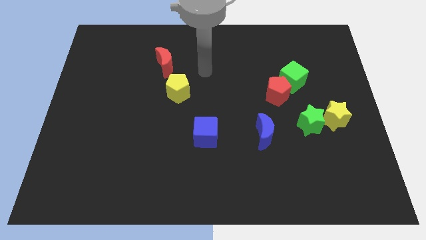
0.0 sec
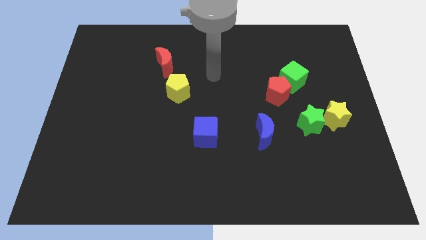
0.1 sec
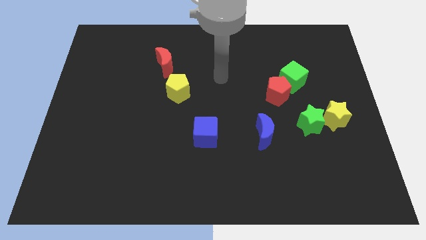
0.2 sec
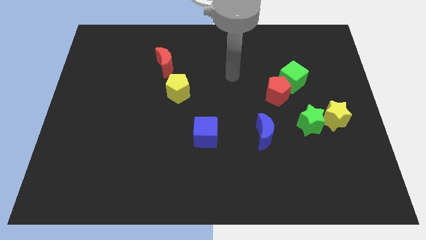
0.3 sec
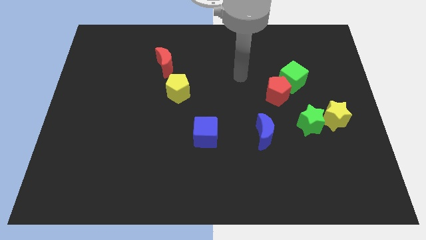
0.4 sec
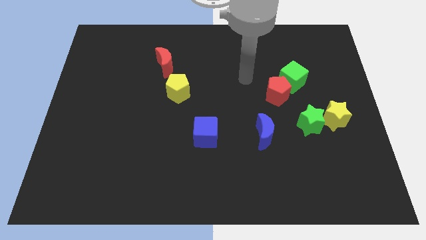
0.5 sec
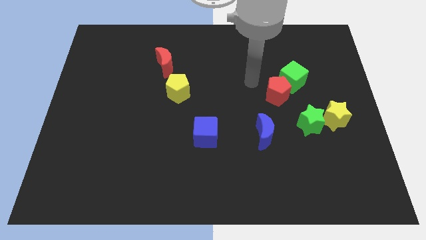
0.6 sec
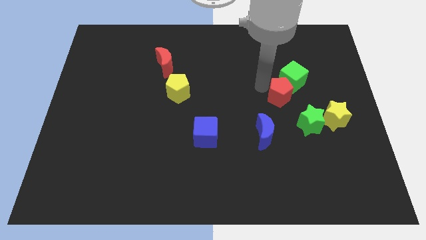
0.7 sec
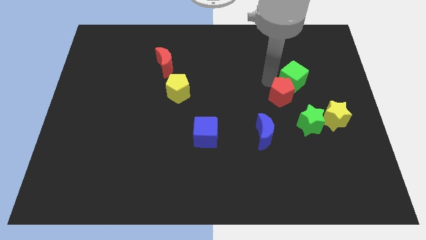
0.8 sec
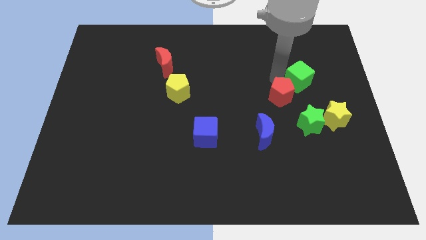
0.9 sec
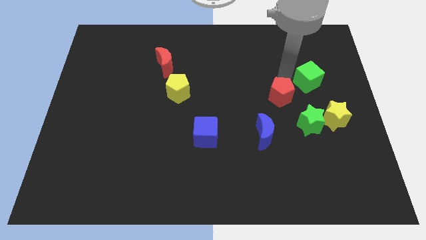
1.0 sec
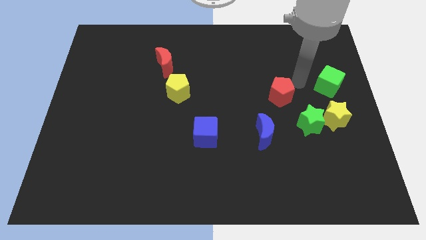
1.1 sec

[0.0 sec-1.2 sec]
separate the red pentagon from the green cube

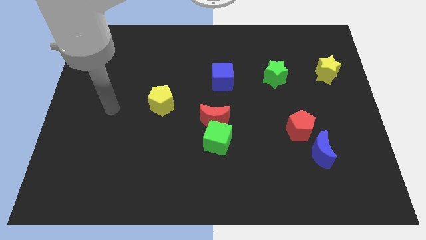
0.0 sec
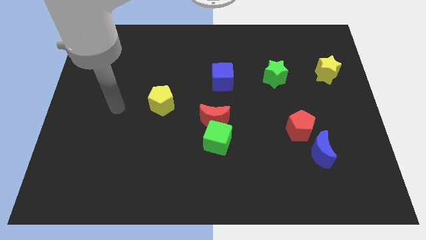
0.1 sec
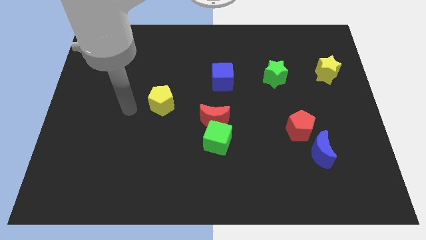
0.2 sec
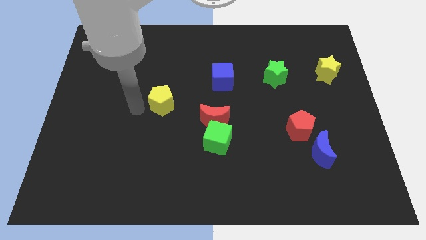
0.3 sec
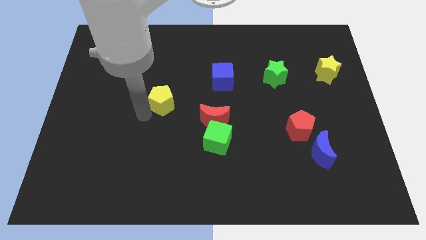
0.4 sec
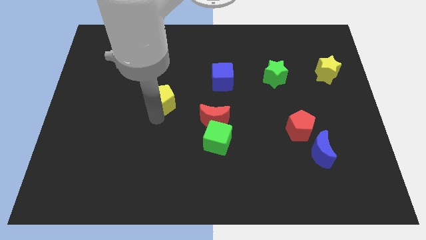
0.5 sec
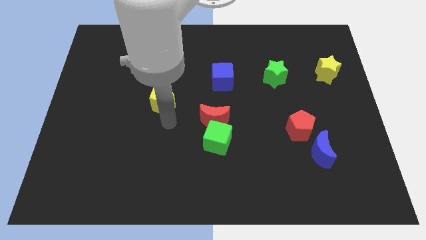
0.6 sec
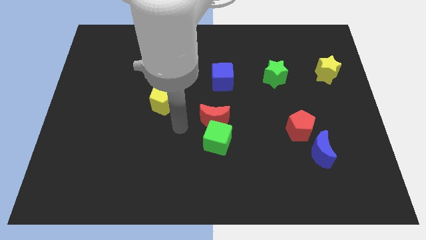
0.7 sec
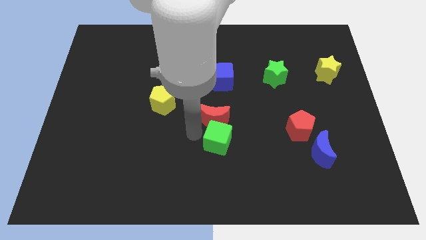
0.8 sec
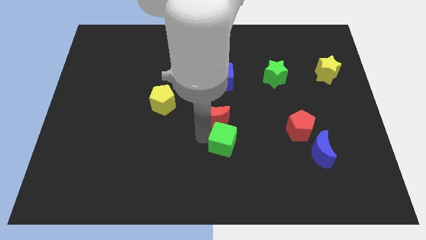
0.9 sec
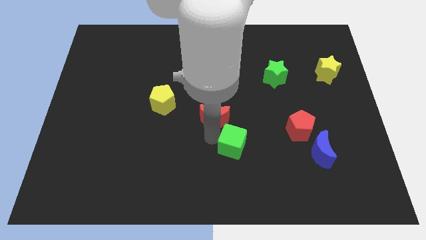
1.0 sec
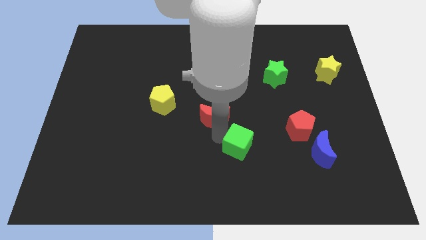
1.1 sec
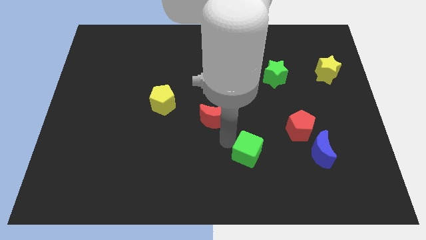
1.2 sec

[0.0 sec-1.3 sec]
pull the red moon apart from the green cube

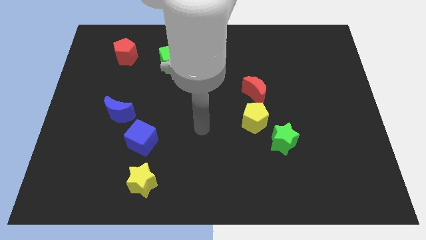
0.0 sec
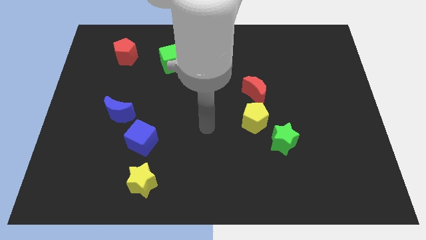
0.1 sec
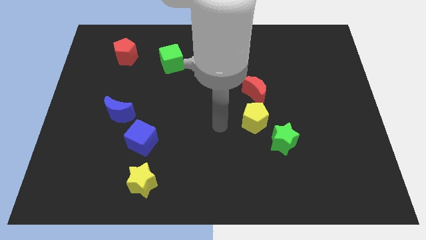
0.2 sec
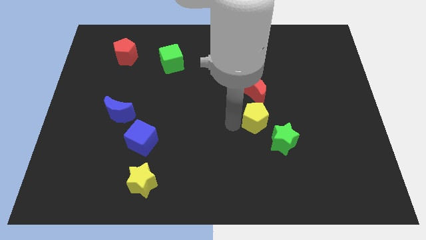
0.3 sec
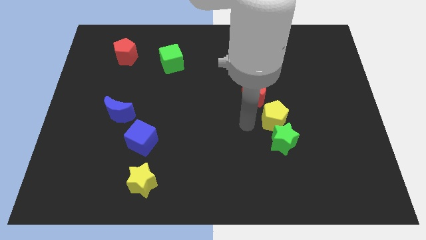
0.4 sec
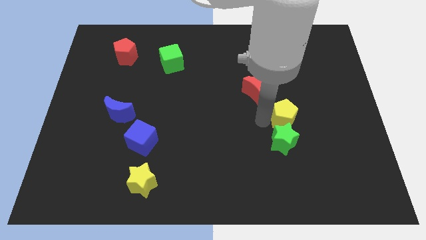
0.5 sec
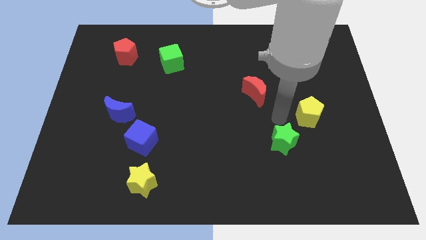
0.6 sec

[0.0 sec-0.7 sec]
move the green star away from the yellow pentagon

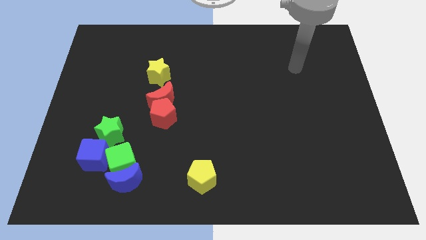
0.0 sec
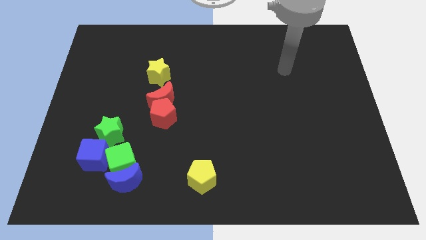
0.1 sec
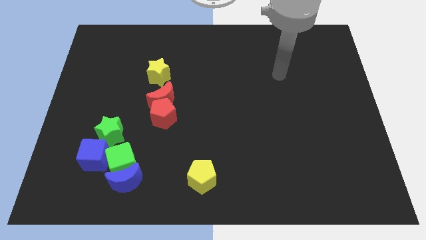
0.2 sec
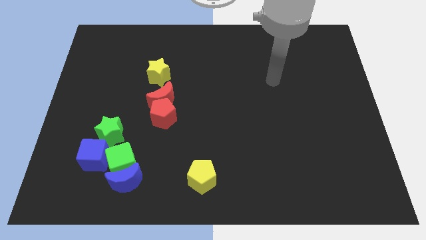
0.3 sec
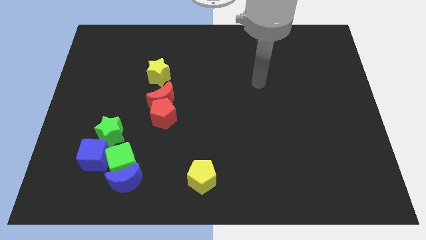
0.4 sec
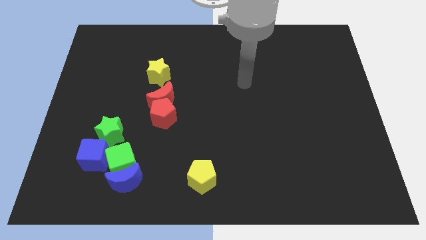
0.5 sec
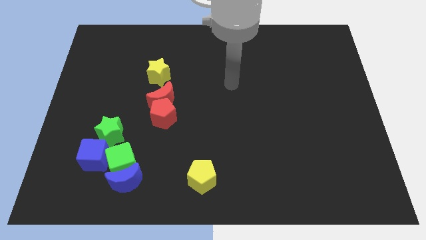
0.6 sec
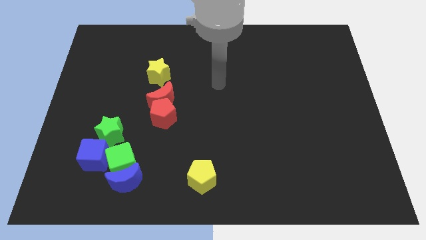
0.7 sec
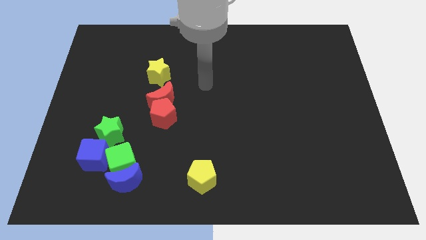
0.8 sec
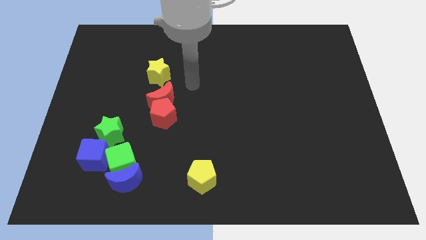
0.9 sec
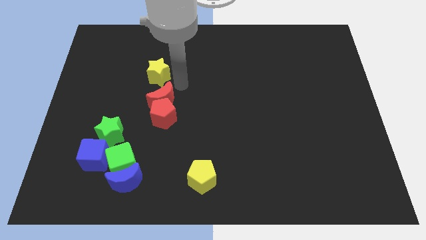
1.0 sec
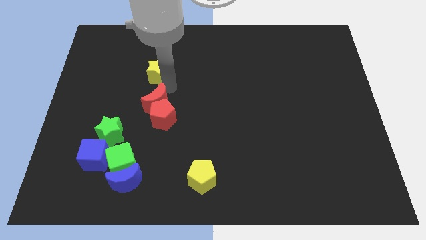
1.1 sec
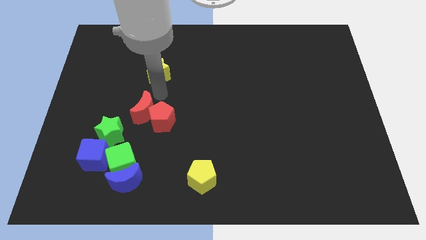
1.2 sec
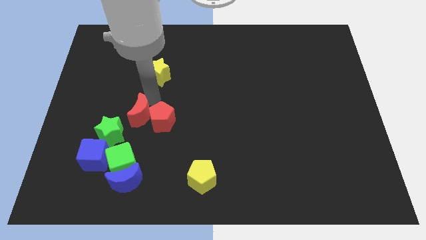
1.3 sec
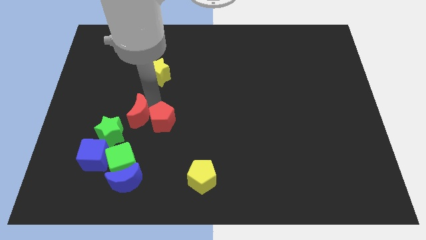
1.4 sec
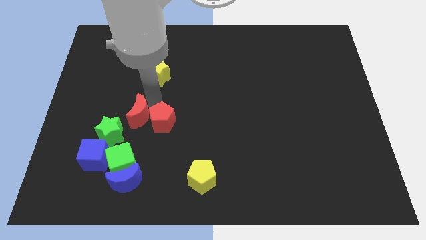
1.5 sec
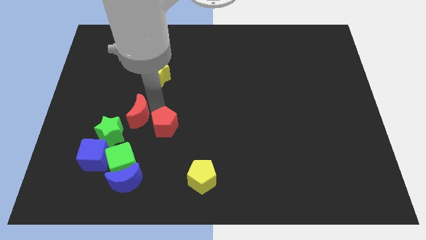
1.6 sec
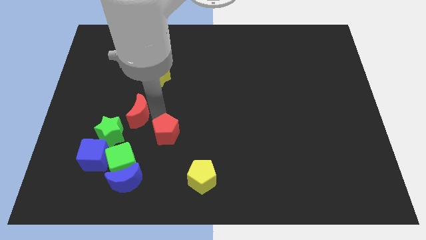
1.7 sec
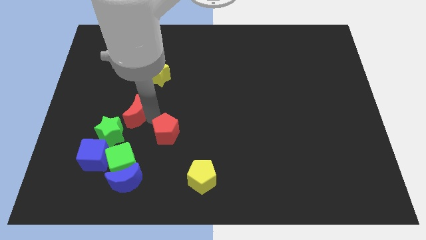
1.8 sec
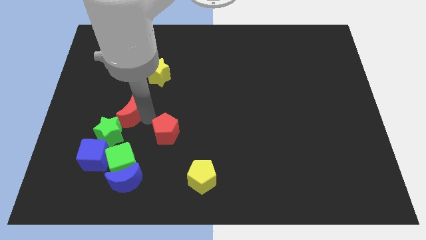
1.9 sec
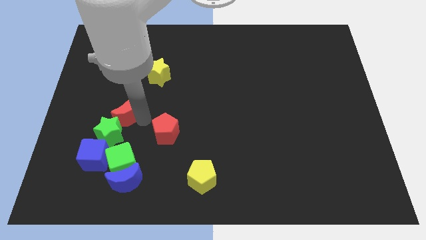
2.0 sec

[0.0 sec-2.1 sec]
separate the red pentagon from the red moon

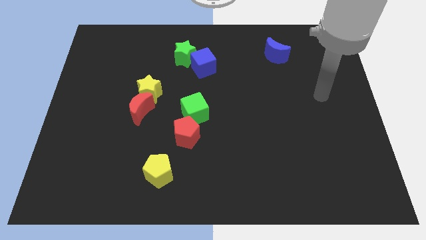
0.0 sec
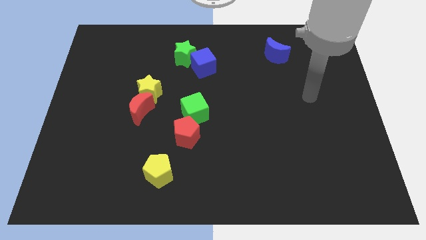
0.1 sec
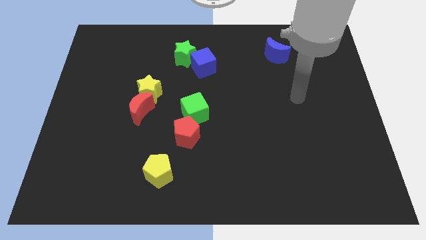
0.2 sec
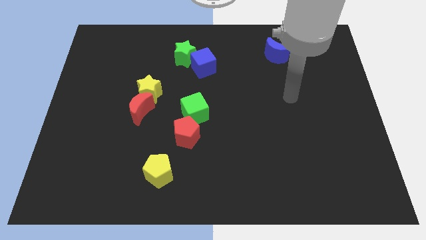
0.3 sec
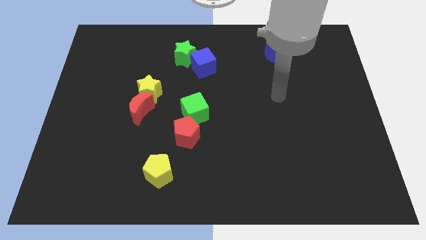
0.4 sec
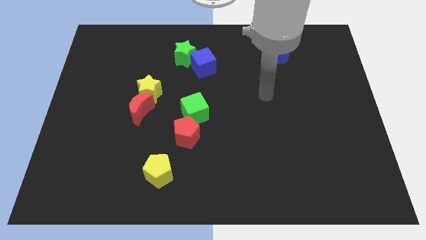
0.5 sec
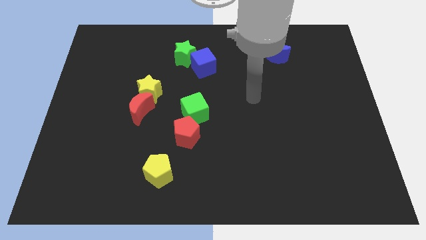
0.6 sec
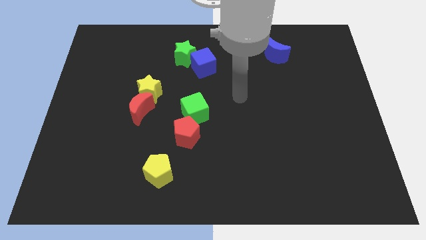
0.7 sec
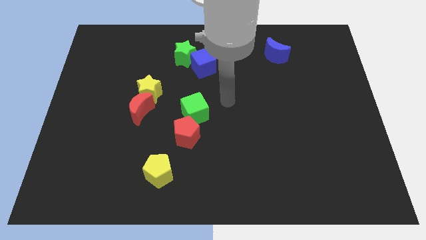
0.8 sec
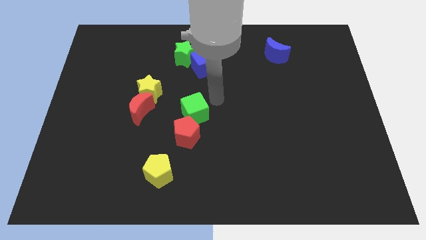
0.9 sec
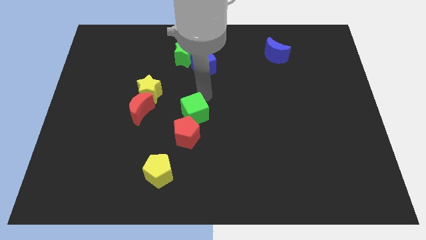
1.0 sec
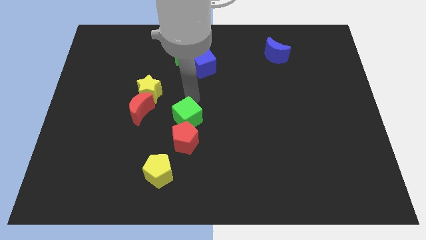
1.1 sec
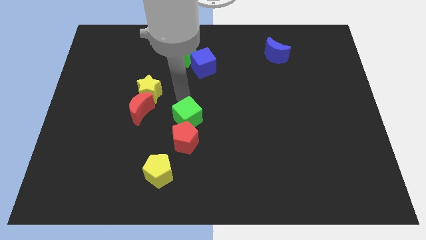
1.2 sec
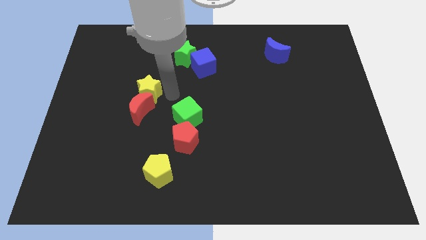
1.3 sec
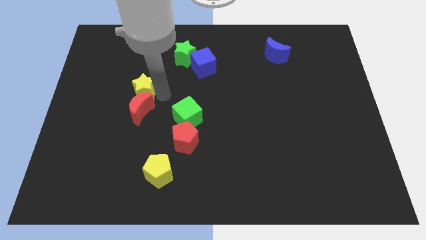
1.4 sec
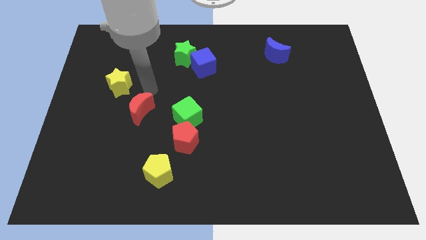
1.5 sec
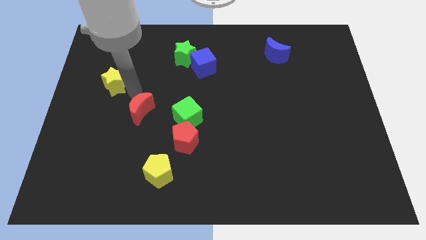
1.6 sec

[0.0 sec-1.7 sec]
pull the red moon apart from the yellow star

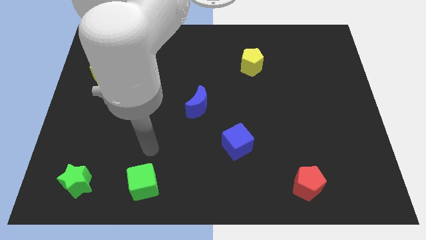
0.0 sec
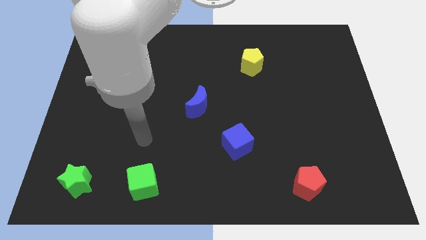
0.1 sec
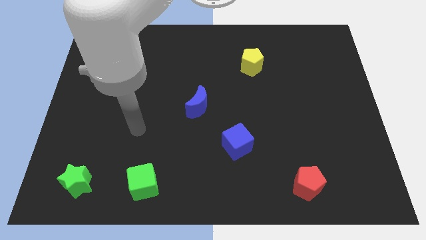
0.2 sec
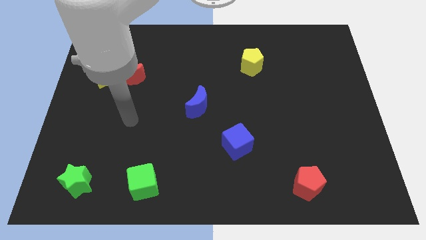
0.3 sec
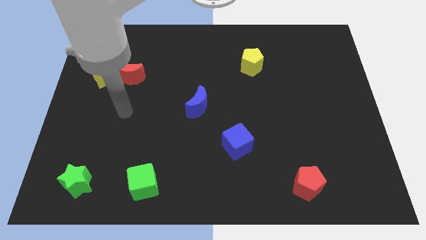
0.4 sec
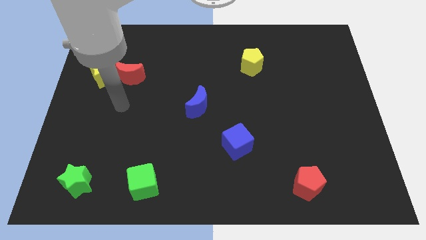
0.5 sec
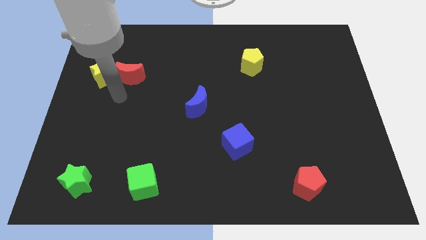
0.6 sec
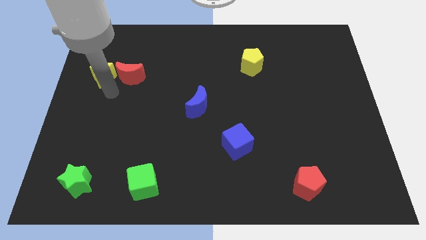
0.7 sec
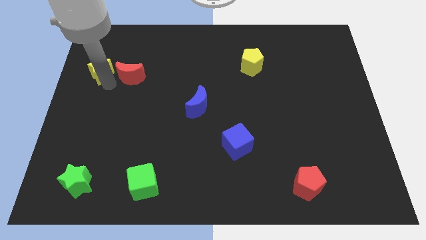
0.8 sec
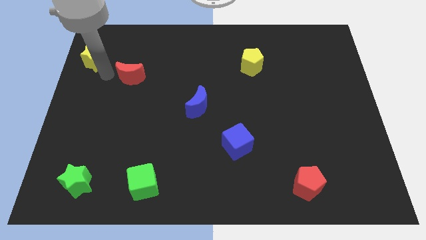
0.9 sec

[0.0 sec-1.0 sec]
move the red moon away from the yellow star

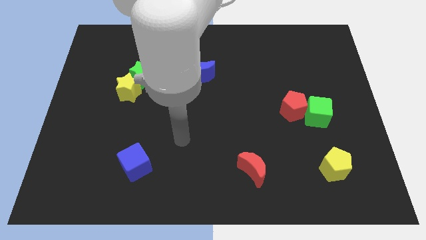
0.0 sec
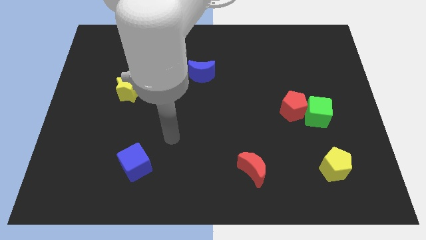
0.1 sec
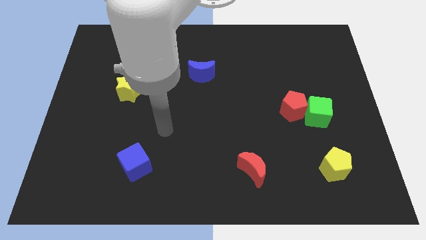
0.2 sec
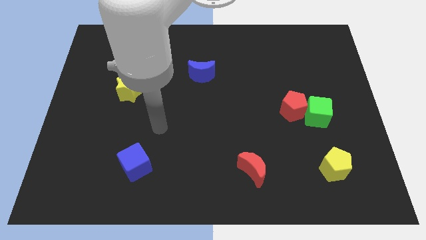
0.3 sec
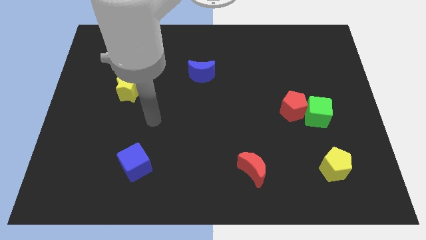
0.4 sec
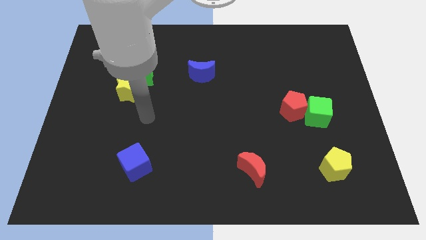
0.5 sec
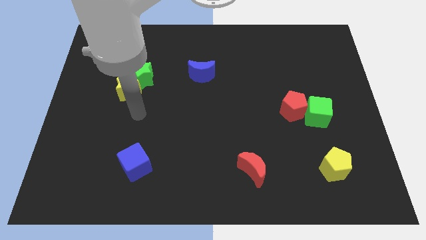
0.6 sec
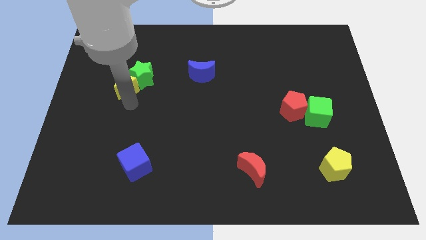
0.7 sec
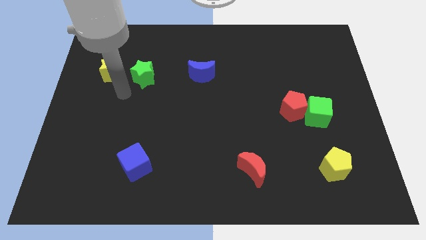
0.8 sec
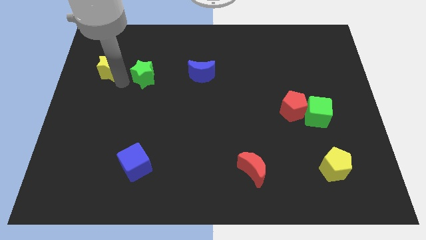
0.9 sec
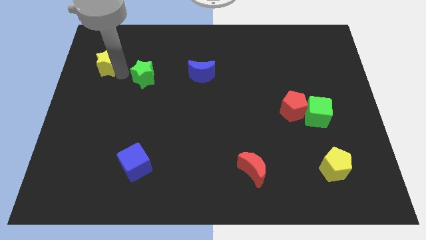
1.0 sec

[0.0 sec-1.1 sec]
pull the green star apart from the yellow star

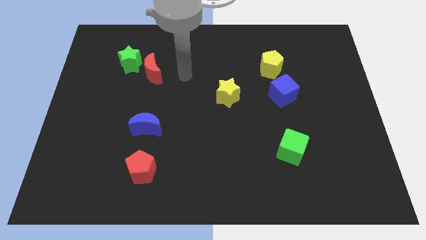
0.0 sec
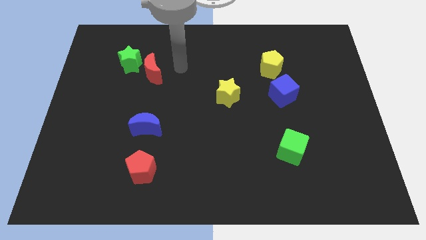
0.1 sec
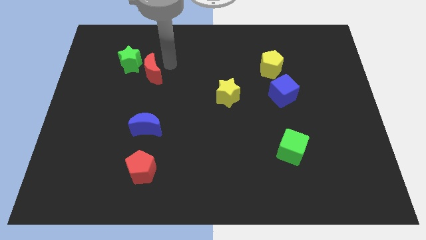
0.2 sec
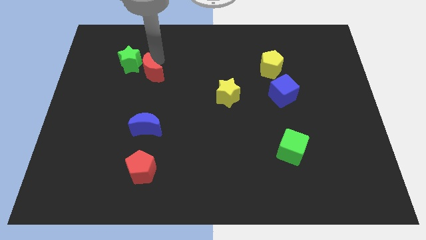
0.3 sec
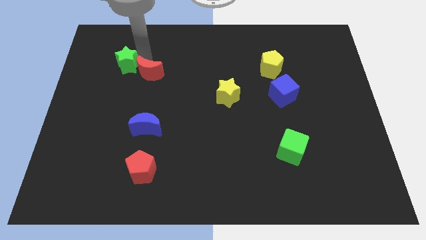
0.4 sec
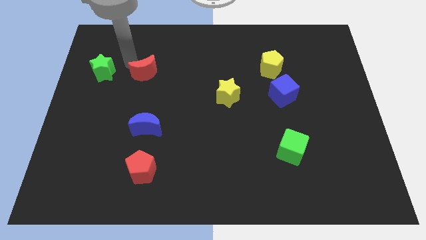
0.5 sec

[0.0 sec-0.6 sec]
move the red moon away from the green star
